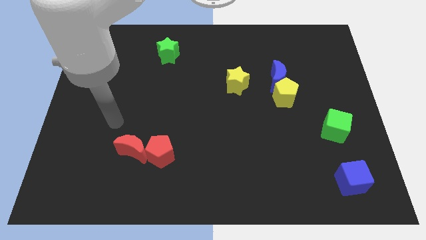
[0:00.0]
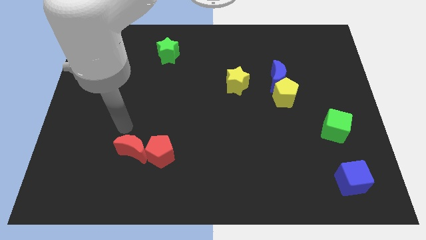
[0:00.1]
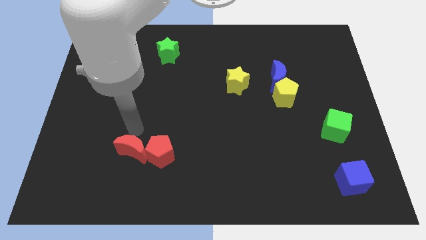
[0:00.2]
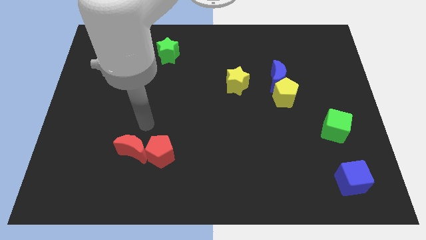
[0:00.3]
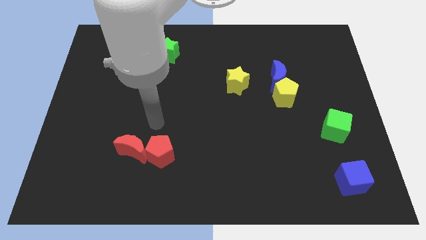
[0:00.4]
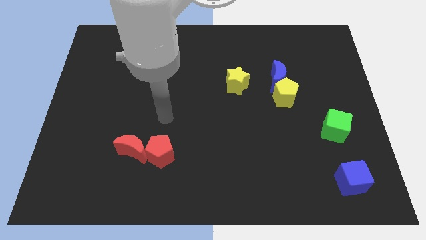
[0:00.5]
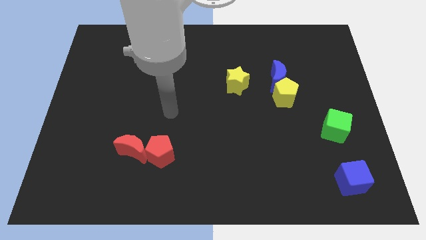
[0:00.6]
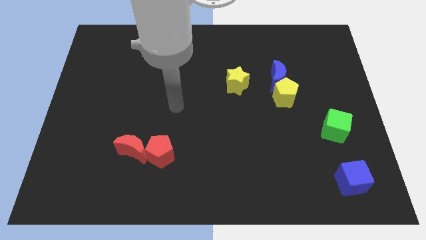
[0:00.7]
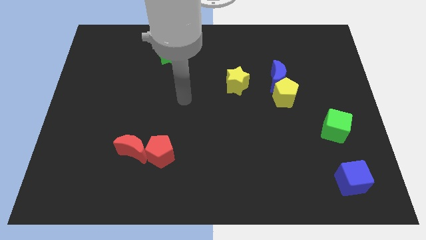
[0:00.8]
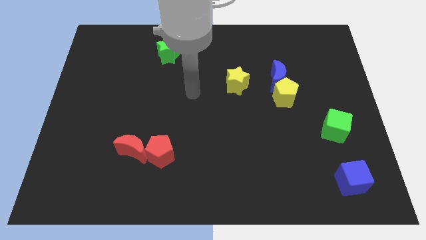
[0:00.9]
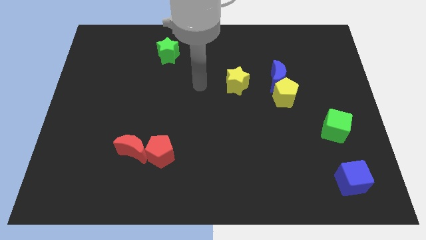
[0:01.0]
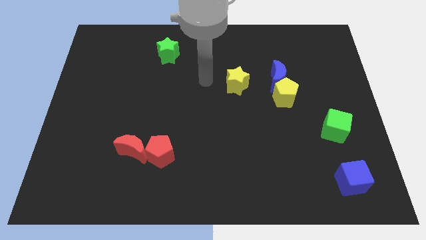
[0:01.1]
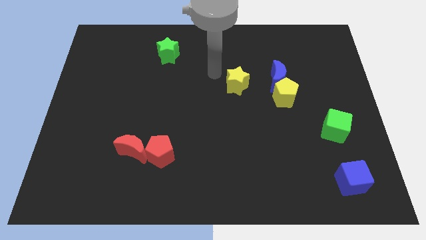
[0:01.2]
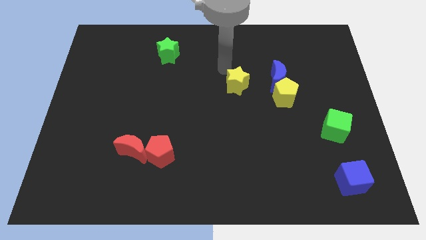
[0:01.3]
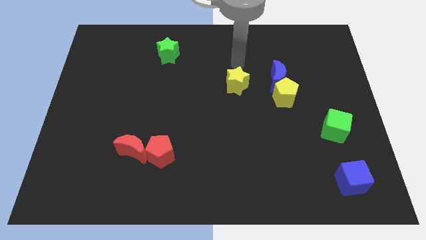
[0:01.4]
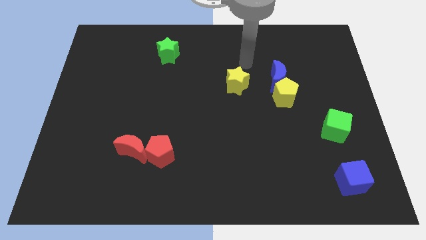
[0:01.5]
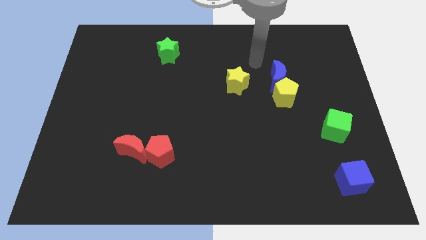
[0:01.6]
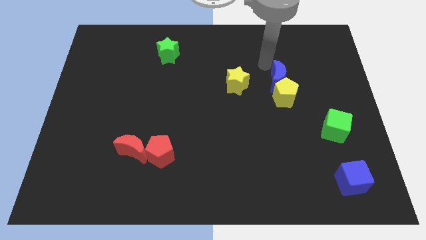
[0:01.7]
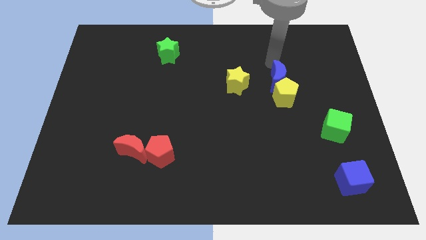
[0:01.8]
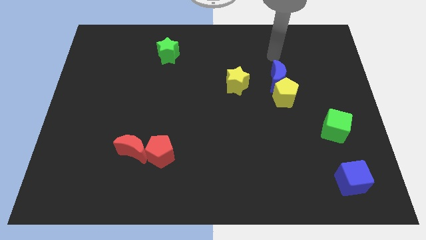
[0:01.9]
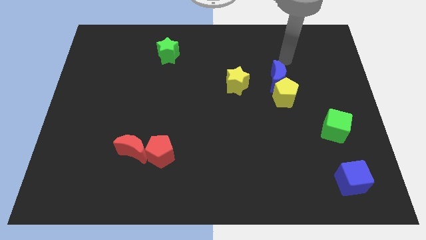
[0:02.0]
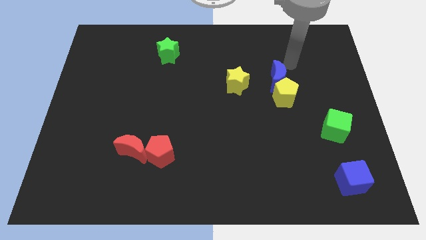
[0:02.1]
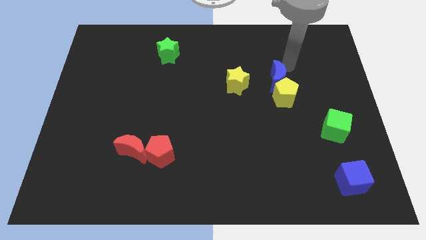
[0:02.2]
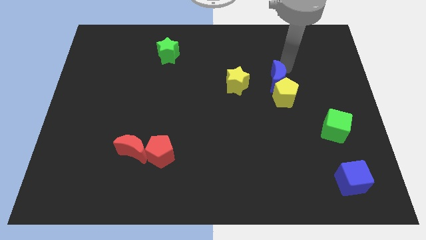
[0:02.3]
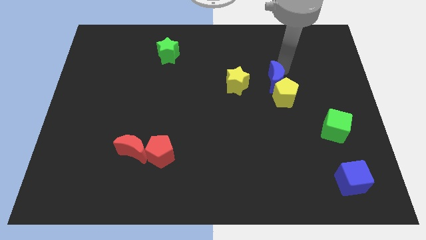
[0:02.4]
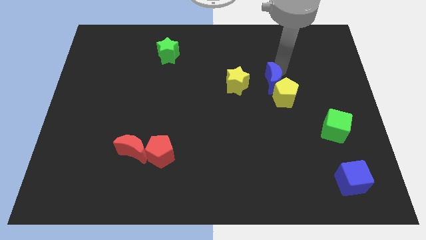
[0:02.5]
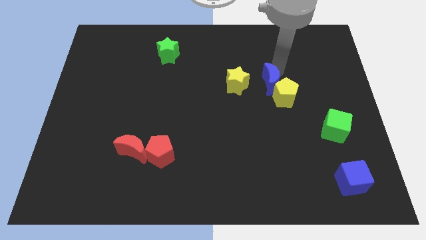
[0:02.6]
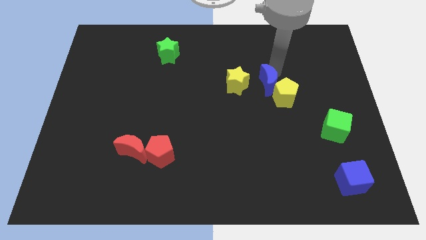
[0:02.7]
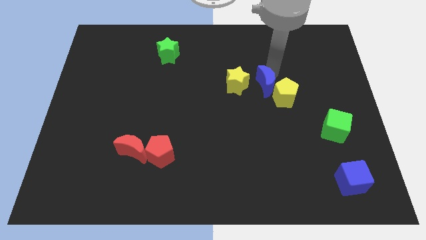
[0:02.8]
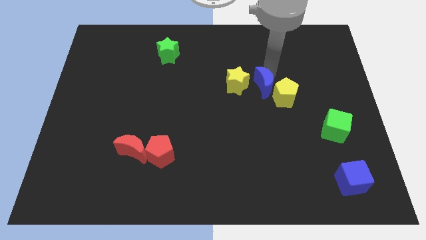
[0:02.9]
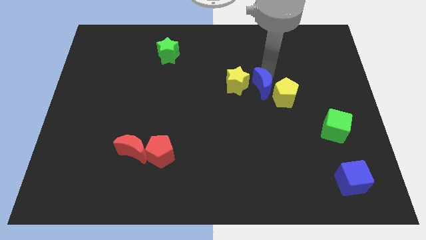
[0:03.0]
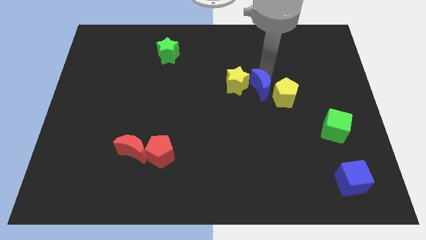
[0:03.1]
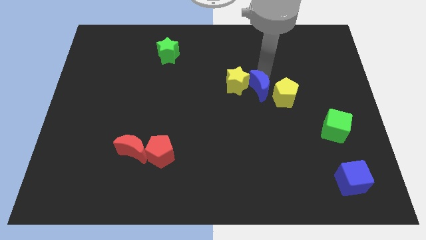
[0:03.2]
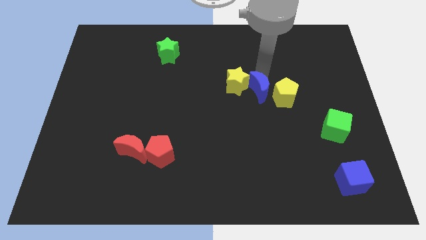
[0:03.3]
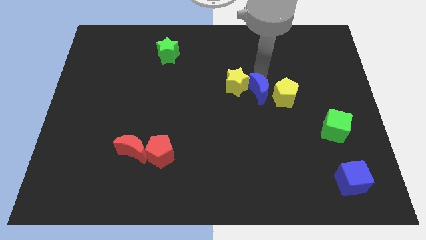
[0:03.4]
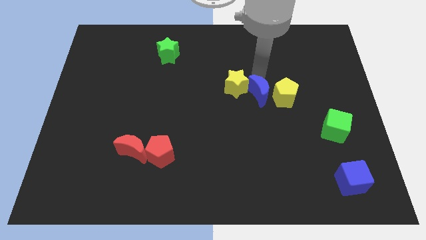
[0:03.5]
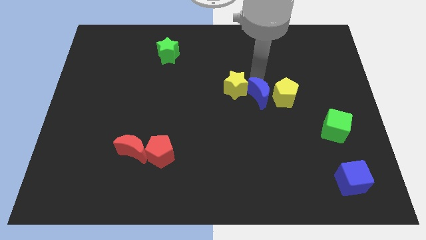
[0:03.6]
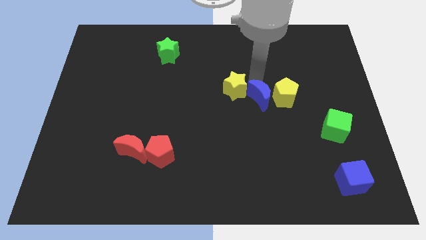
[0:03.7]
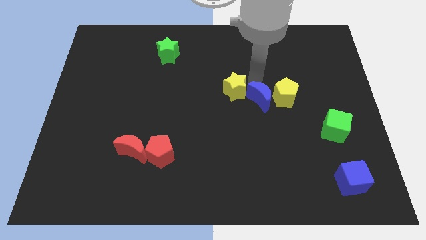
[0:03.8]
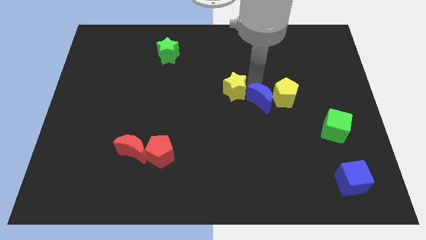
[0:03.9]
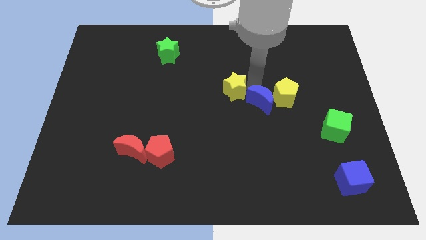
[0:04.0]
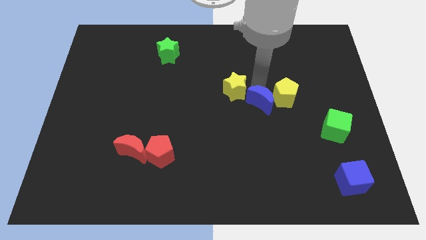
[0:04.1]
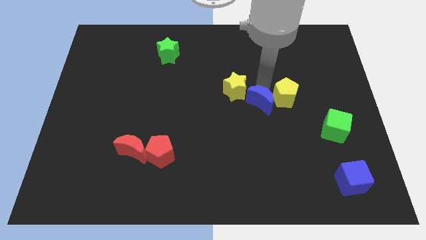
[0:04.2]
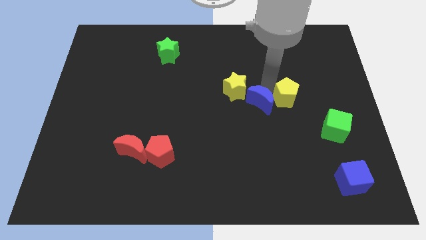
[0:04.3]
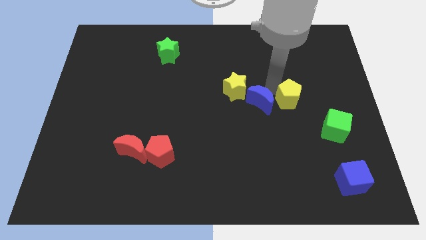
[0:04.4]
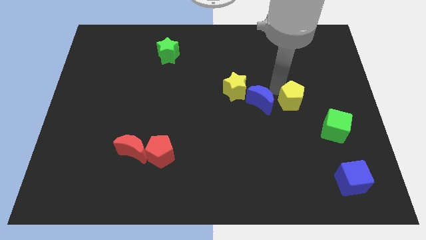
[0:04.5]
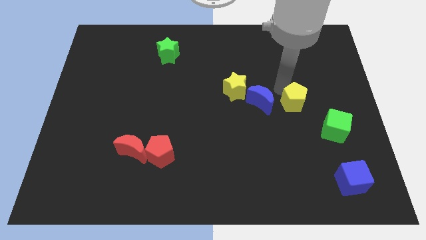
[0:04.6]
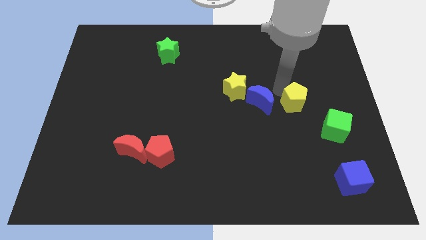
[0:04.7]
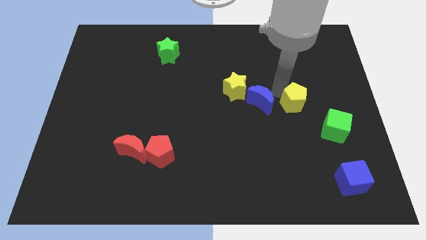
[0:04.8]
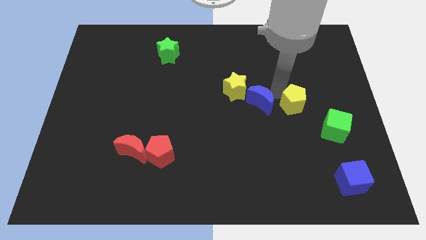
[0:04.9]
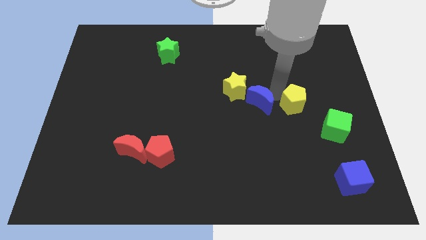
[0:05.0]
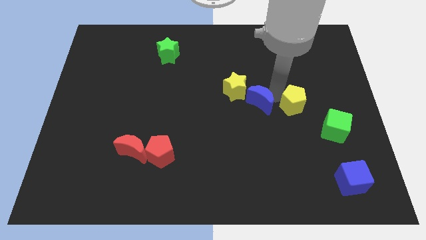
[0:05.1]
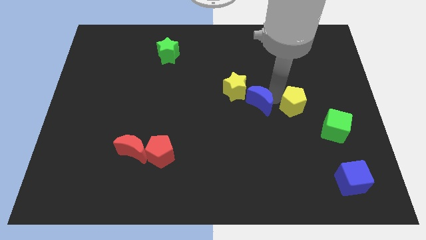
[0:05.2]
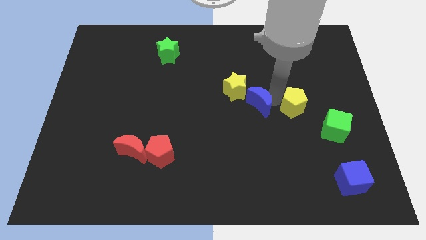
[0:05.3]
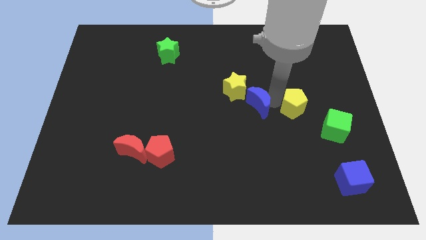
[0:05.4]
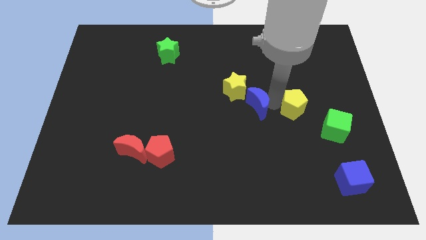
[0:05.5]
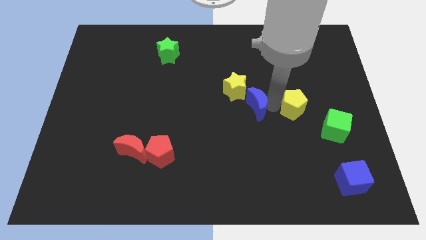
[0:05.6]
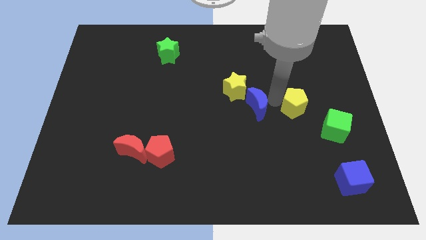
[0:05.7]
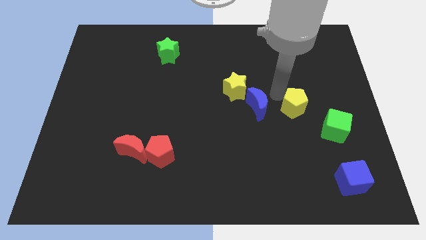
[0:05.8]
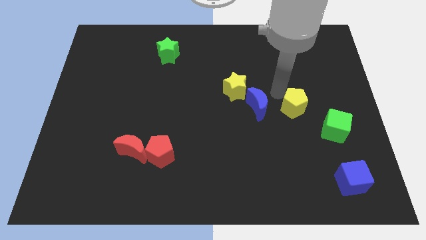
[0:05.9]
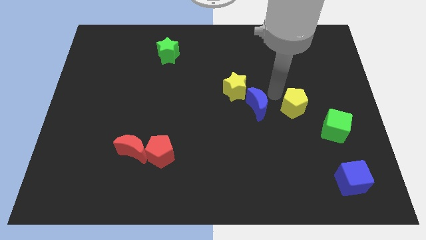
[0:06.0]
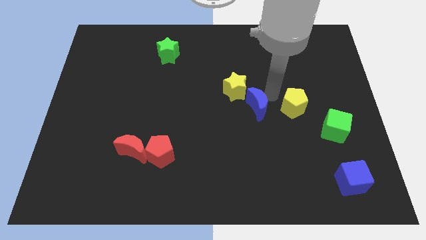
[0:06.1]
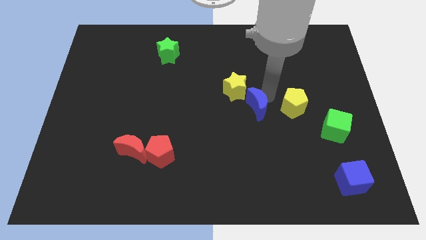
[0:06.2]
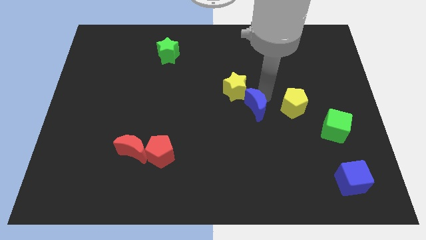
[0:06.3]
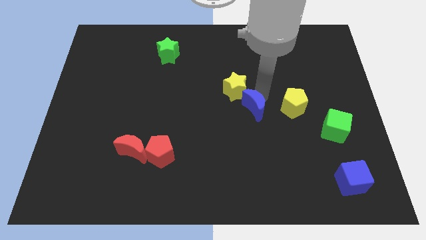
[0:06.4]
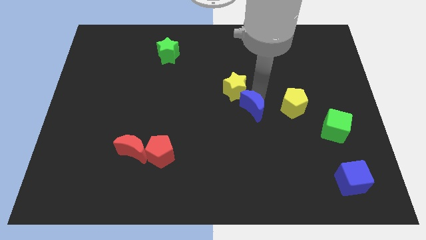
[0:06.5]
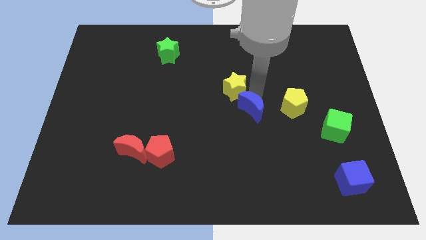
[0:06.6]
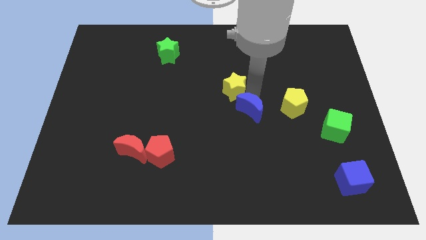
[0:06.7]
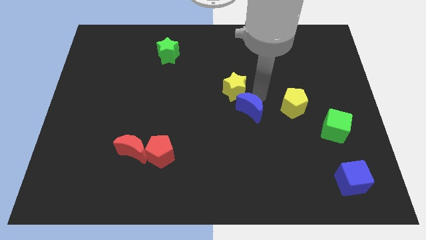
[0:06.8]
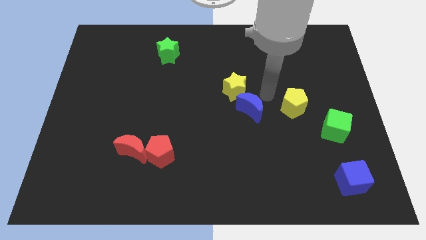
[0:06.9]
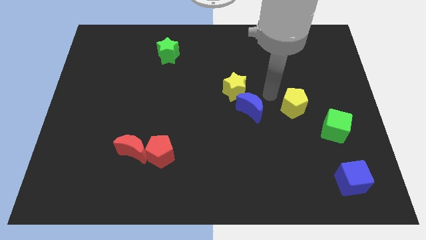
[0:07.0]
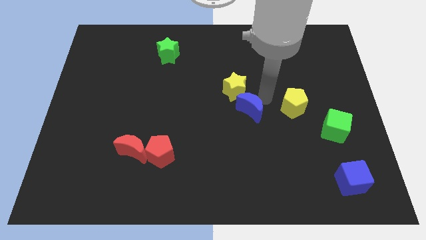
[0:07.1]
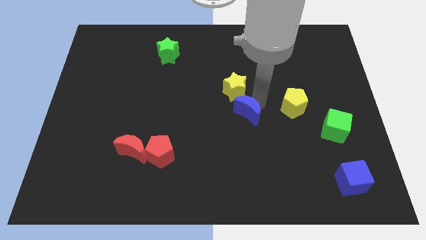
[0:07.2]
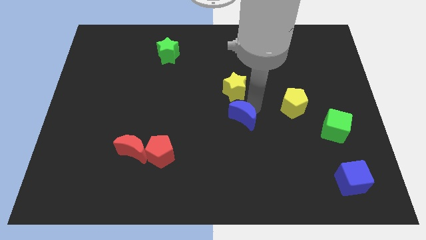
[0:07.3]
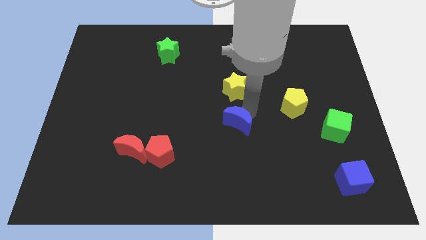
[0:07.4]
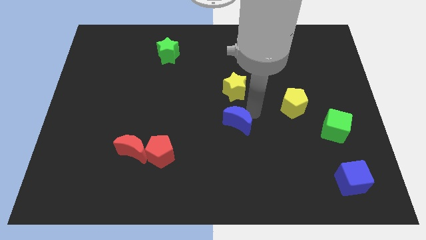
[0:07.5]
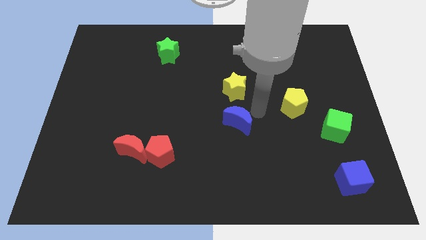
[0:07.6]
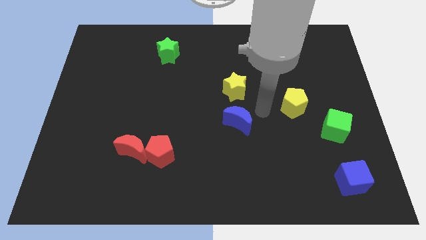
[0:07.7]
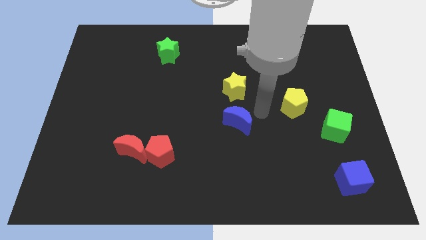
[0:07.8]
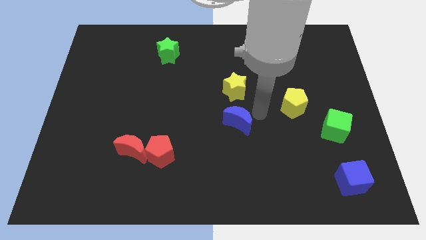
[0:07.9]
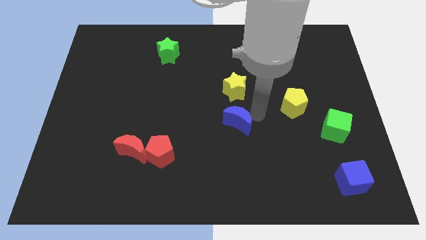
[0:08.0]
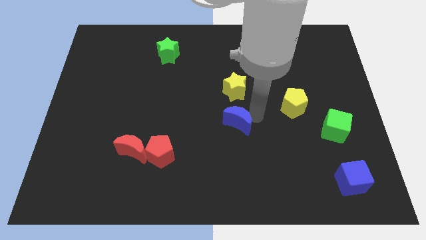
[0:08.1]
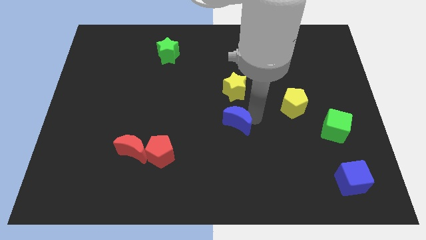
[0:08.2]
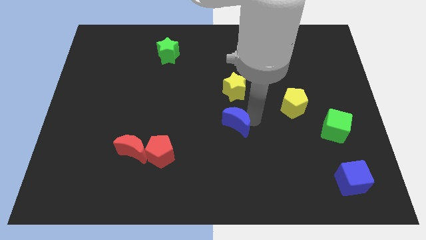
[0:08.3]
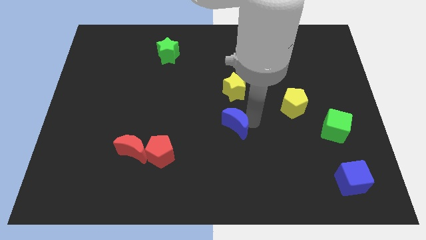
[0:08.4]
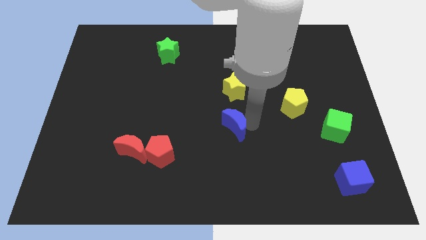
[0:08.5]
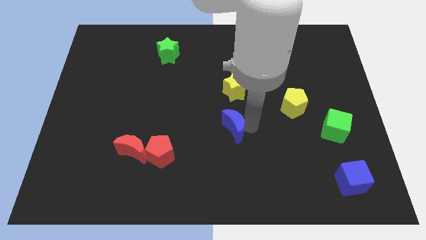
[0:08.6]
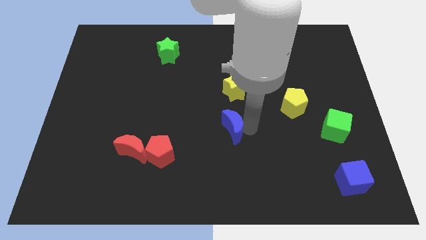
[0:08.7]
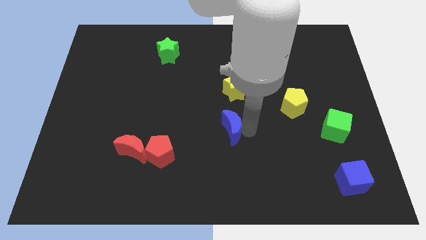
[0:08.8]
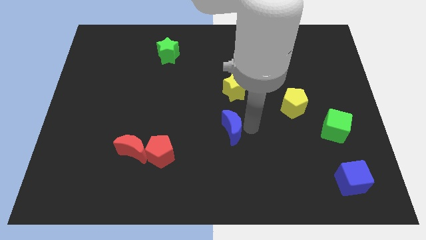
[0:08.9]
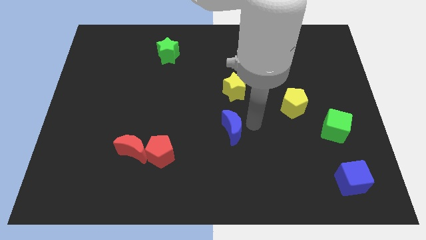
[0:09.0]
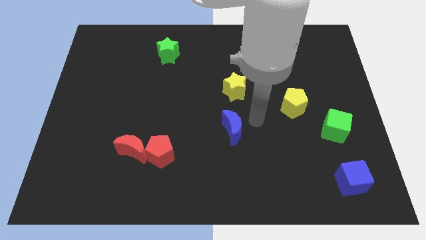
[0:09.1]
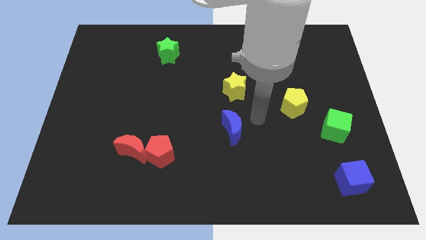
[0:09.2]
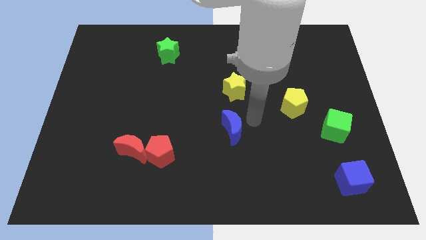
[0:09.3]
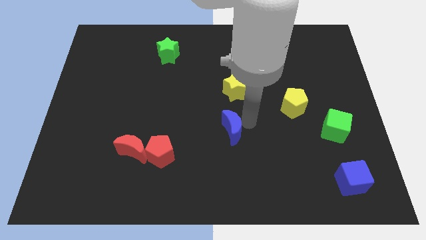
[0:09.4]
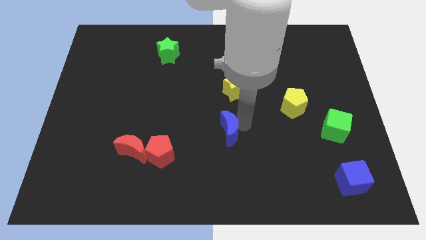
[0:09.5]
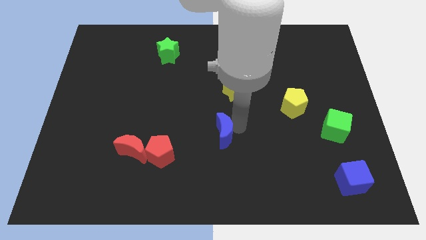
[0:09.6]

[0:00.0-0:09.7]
push the blue moon downwards and left
